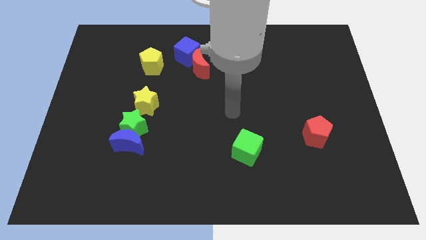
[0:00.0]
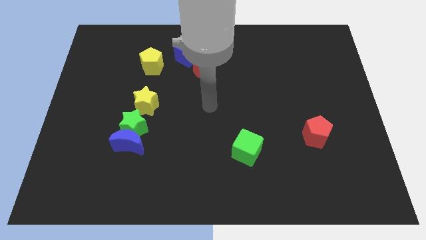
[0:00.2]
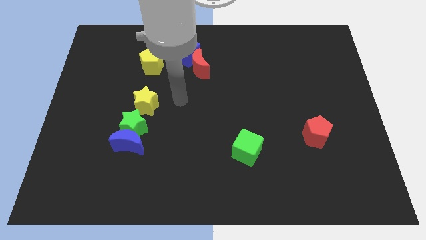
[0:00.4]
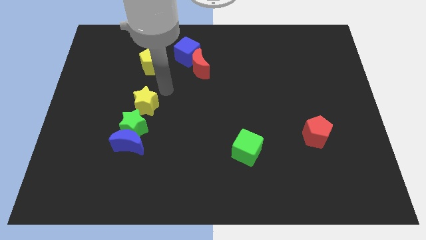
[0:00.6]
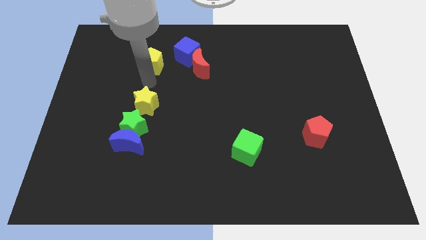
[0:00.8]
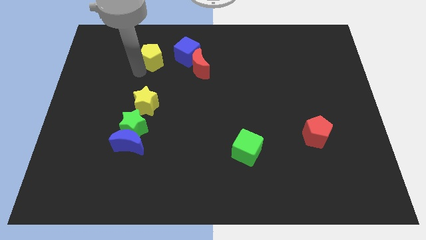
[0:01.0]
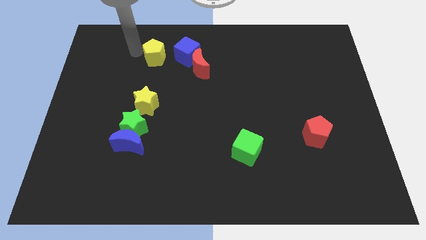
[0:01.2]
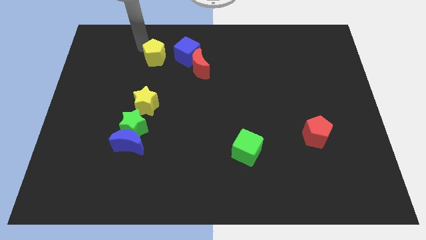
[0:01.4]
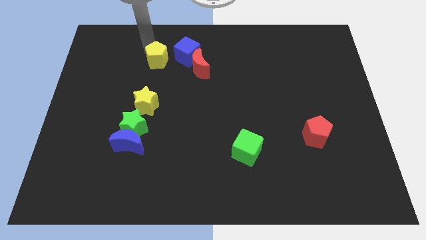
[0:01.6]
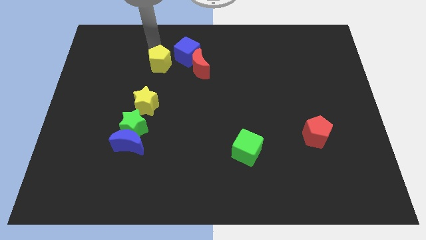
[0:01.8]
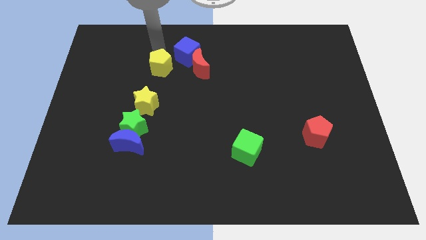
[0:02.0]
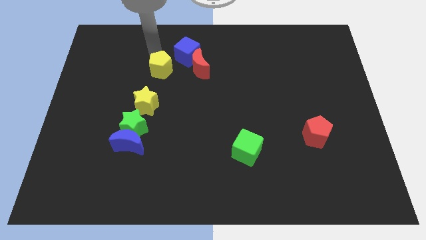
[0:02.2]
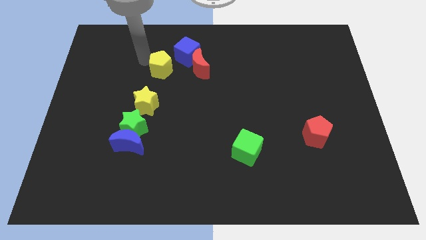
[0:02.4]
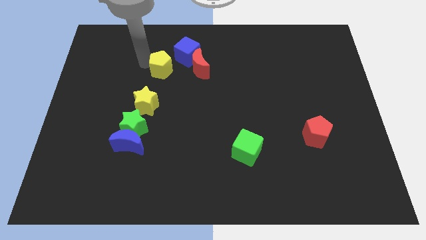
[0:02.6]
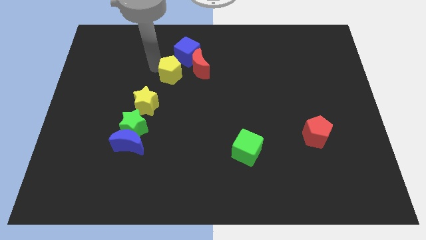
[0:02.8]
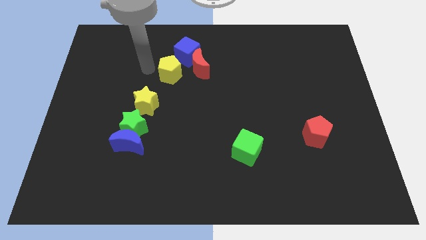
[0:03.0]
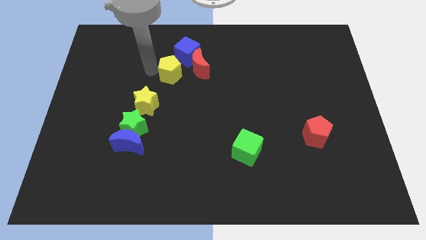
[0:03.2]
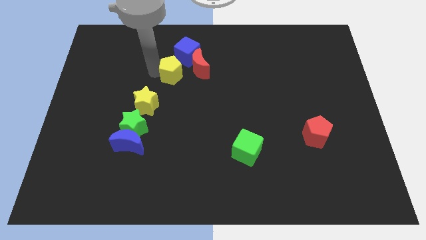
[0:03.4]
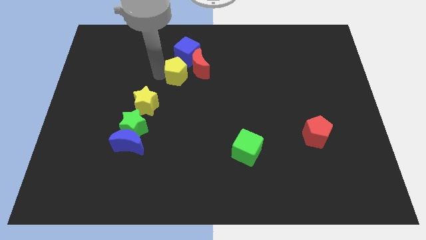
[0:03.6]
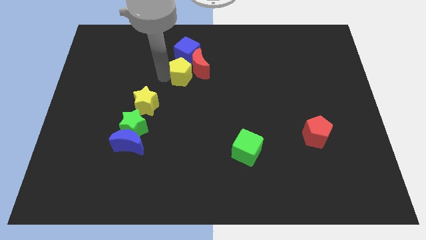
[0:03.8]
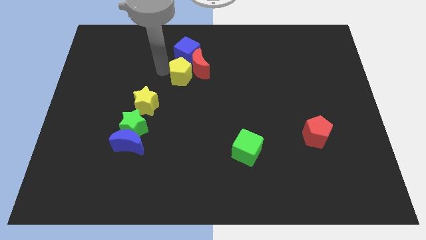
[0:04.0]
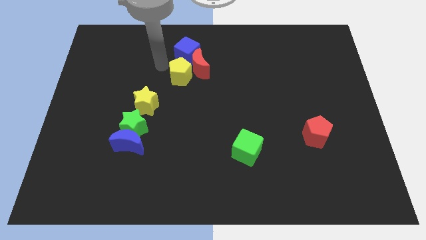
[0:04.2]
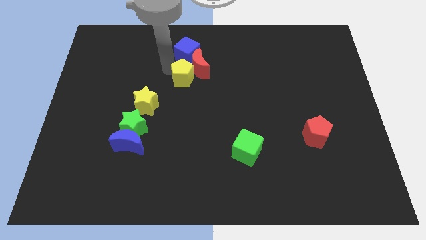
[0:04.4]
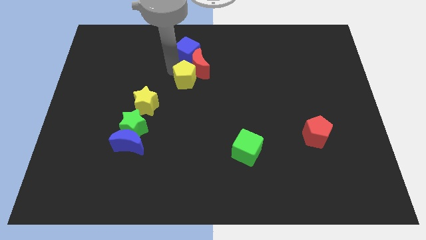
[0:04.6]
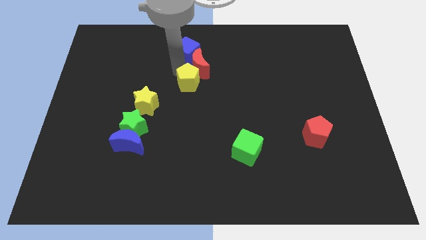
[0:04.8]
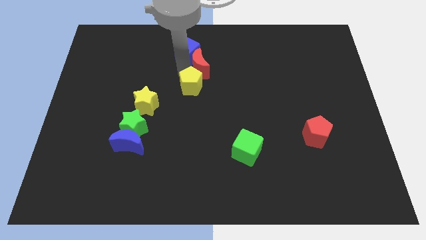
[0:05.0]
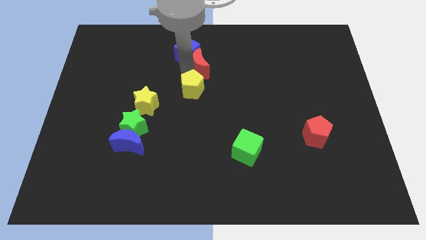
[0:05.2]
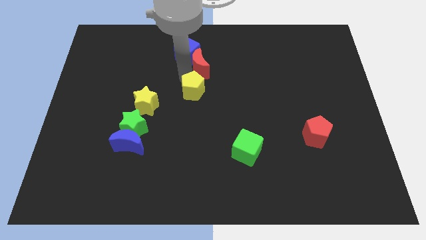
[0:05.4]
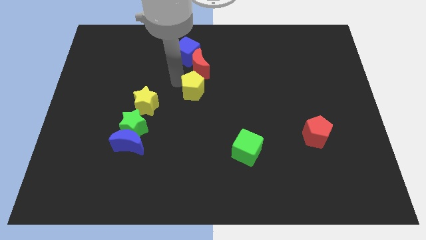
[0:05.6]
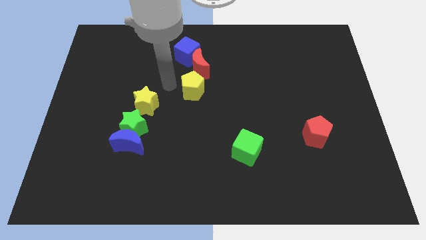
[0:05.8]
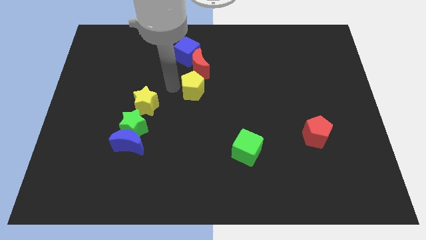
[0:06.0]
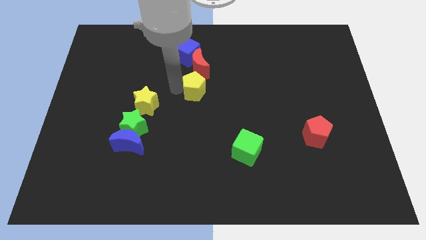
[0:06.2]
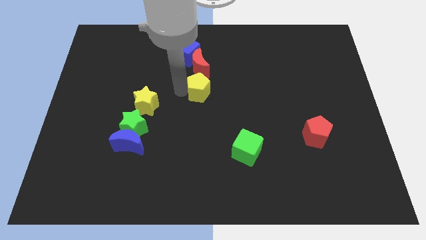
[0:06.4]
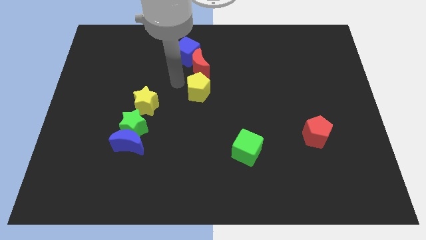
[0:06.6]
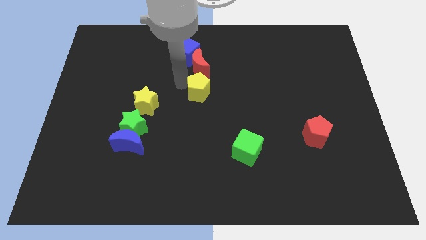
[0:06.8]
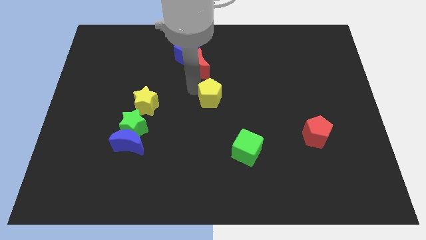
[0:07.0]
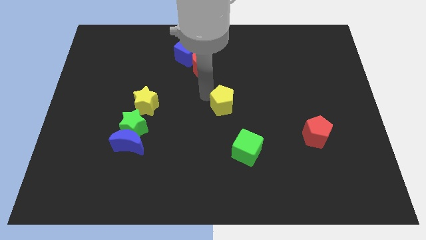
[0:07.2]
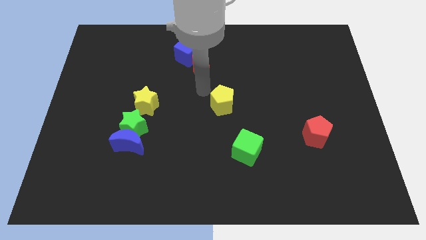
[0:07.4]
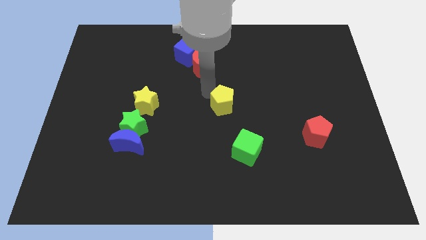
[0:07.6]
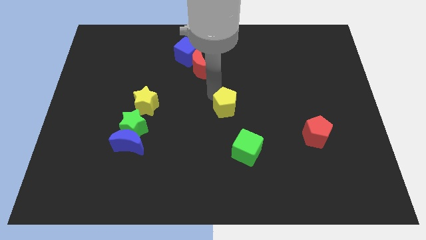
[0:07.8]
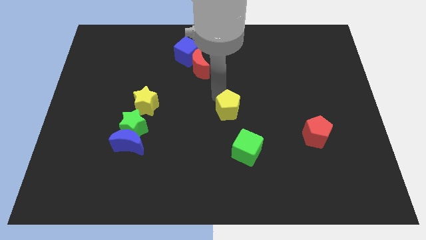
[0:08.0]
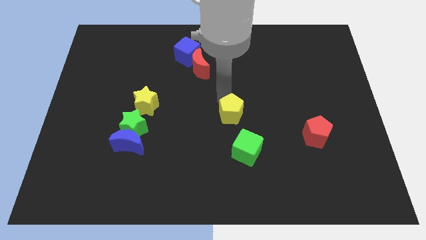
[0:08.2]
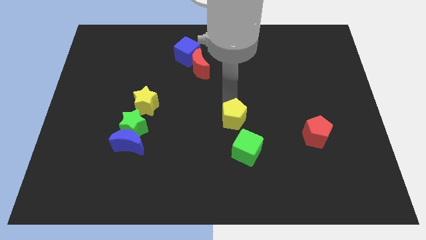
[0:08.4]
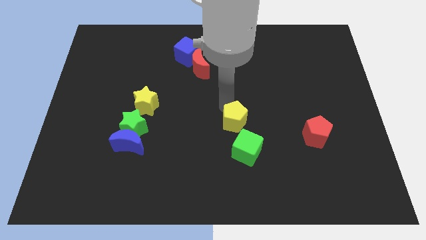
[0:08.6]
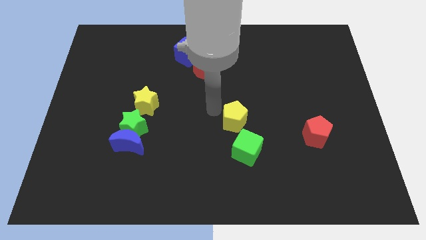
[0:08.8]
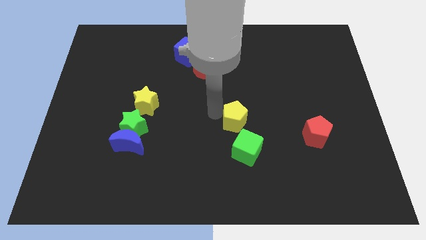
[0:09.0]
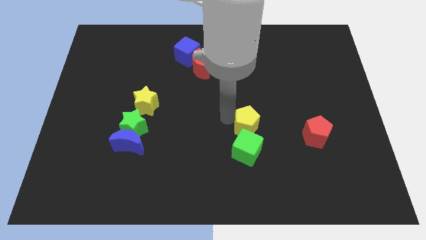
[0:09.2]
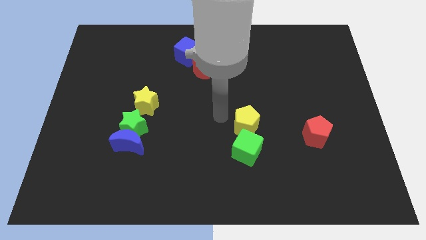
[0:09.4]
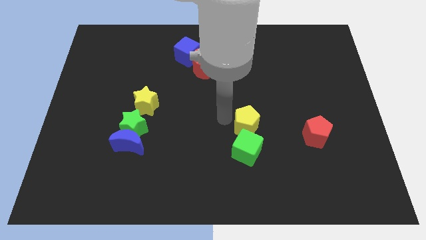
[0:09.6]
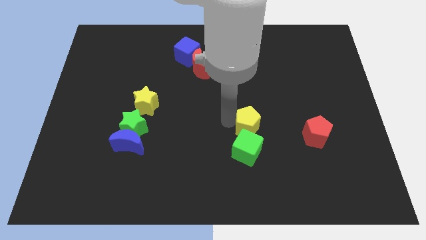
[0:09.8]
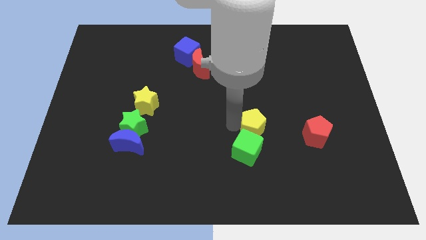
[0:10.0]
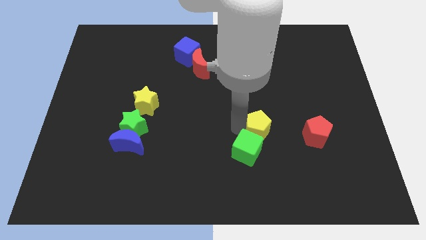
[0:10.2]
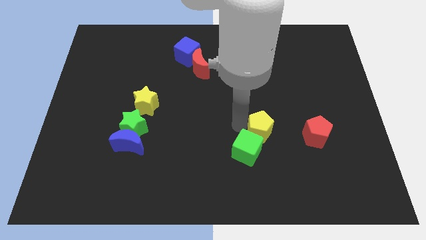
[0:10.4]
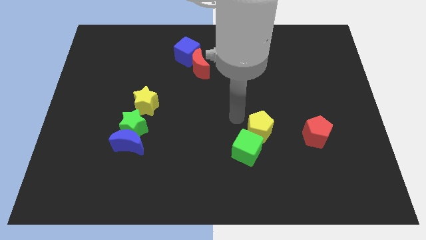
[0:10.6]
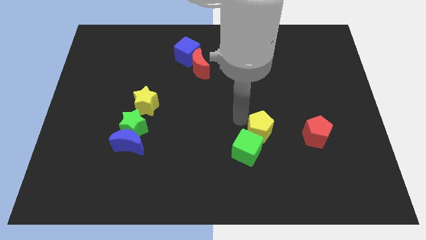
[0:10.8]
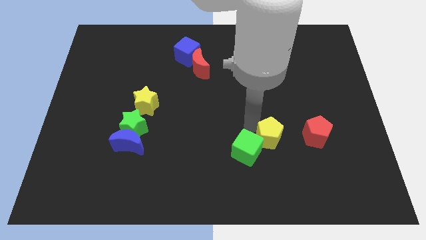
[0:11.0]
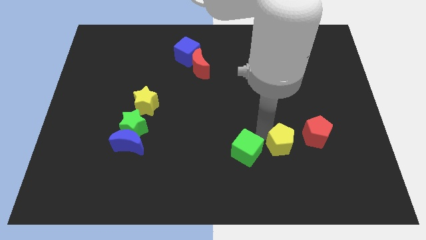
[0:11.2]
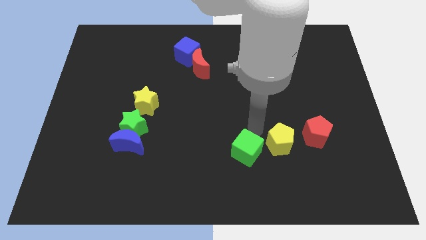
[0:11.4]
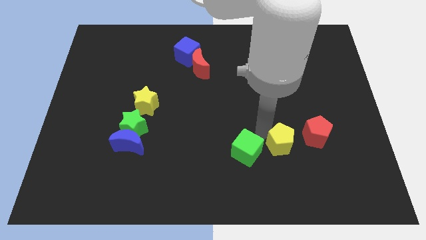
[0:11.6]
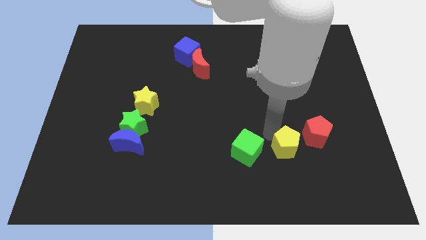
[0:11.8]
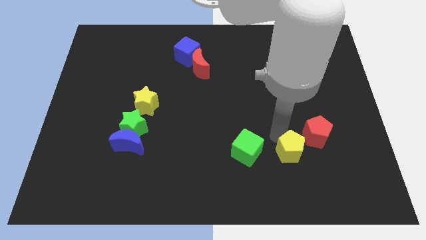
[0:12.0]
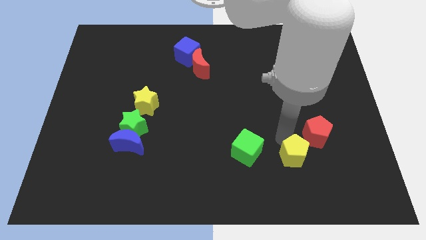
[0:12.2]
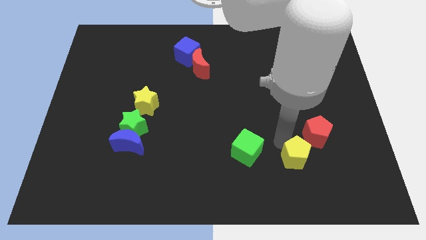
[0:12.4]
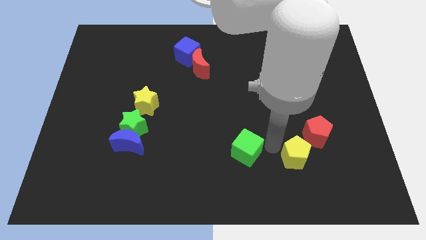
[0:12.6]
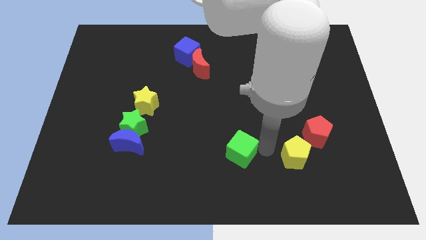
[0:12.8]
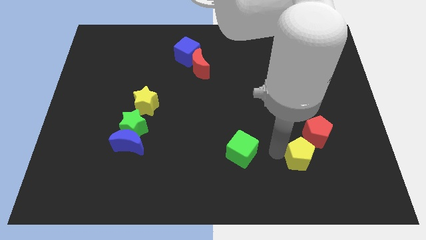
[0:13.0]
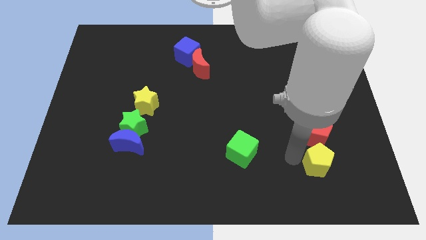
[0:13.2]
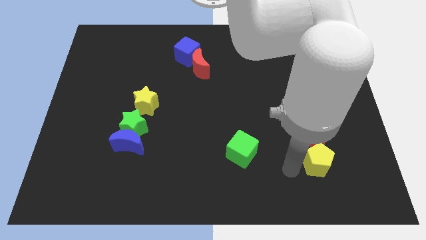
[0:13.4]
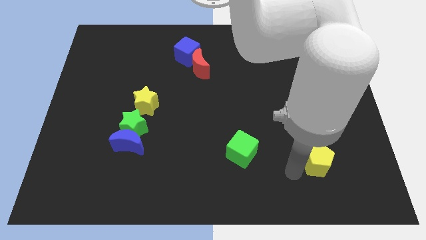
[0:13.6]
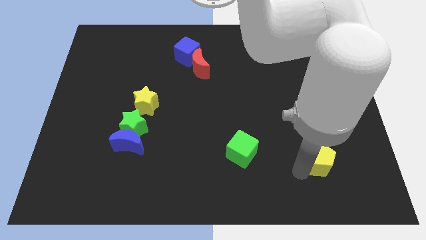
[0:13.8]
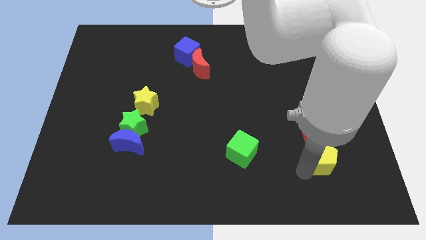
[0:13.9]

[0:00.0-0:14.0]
move the yellow pentagon to the bottom right of the red pentagon
